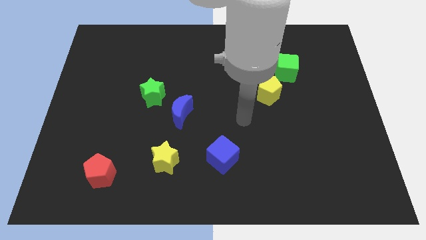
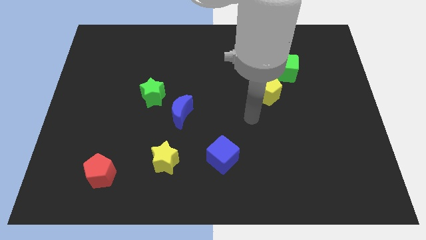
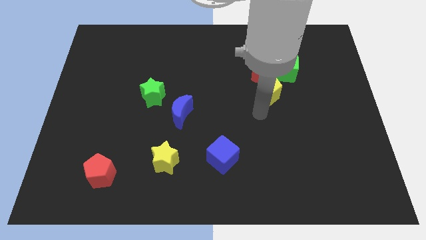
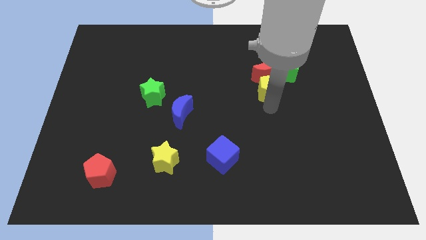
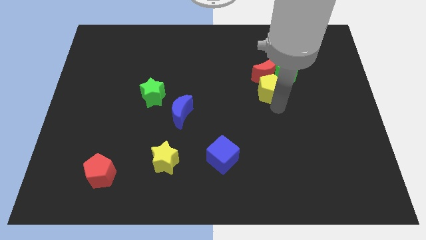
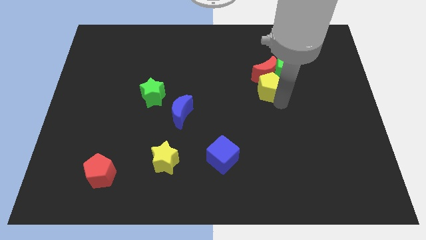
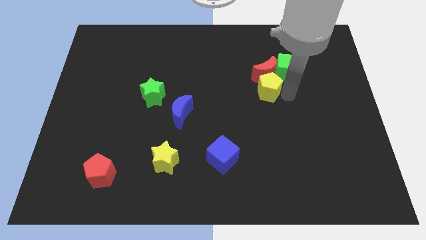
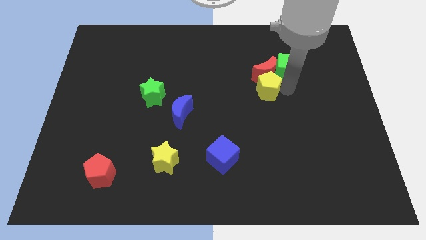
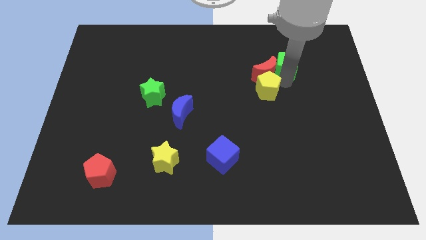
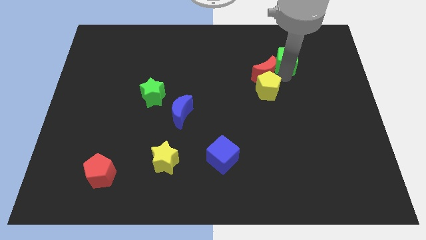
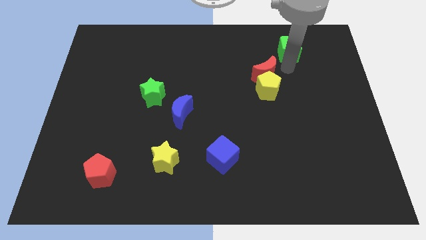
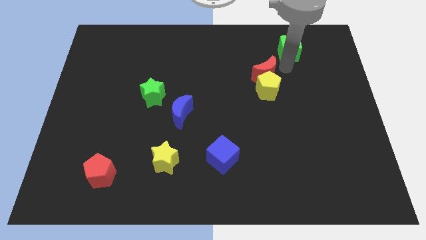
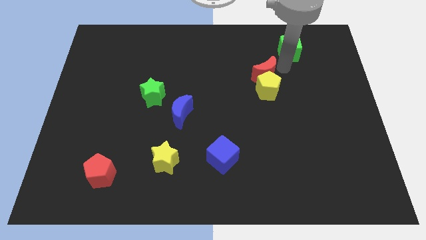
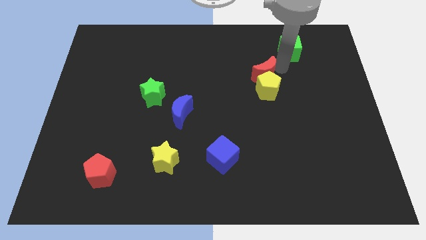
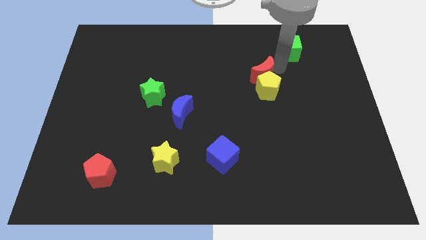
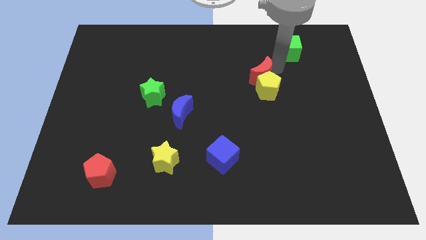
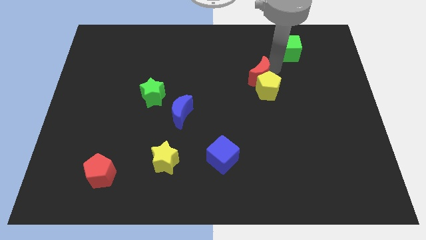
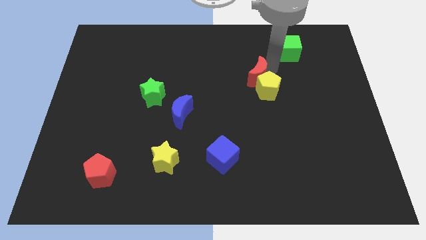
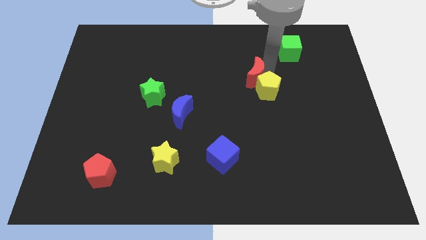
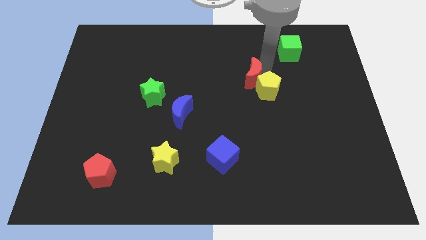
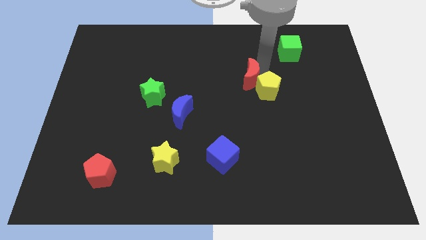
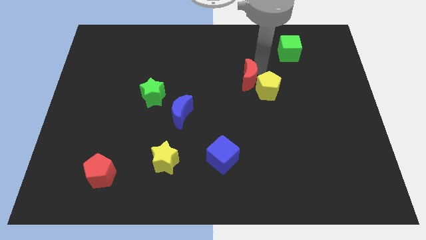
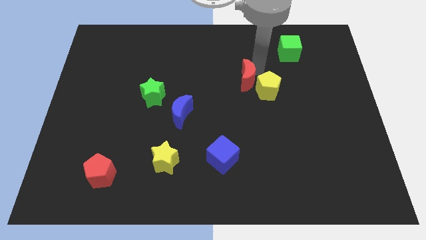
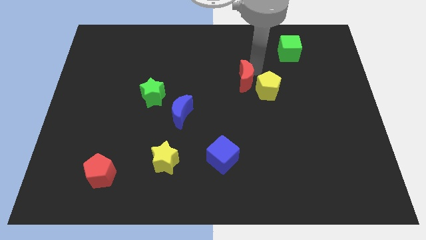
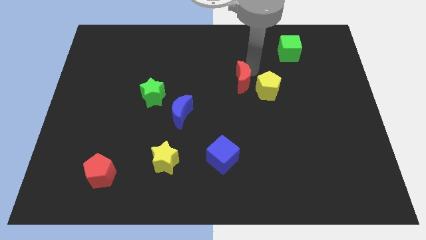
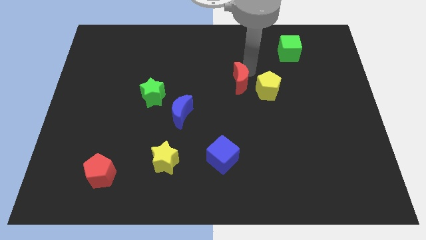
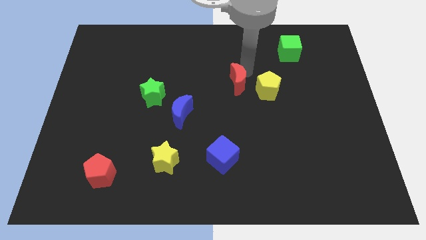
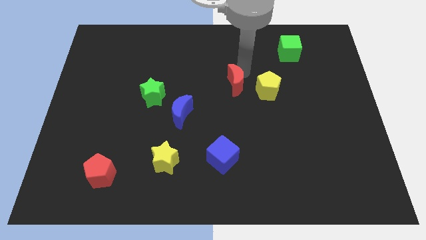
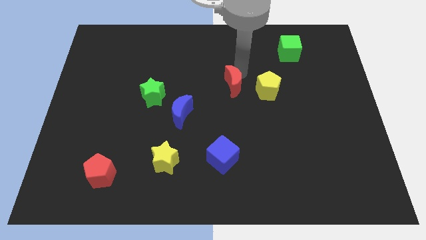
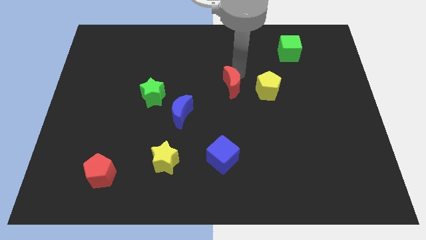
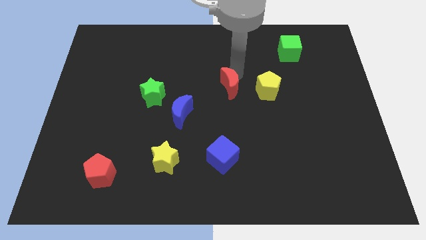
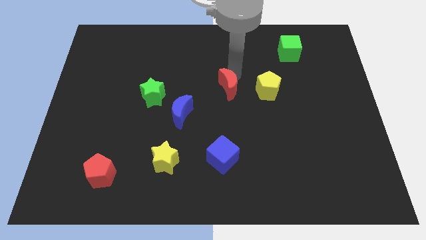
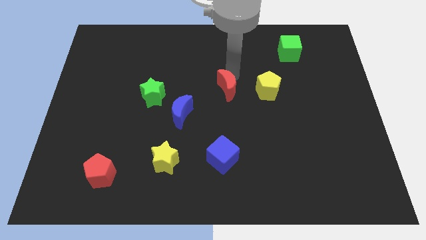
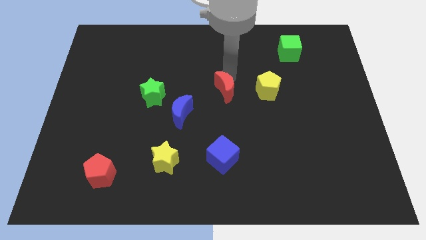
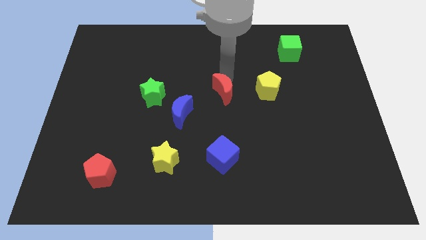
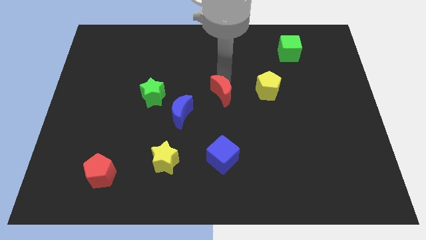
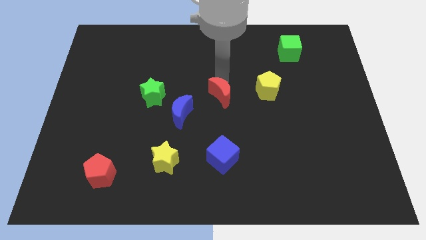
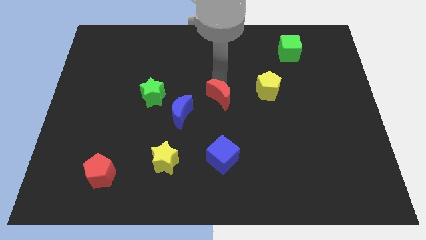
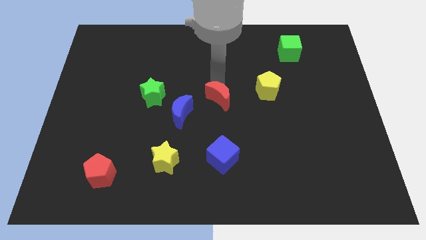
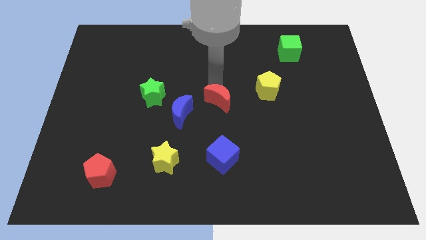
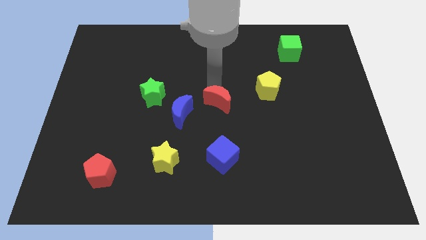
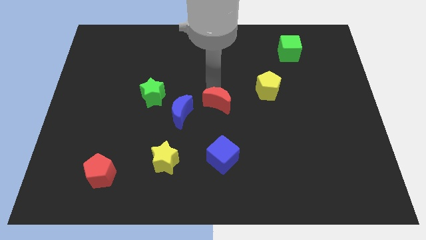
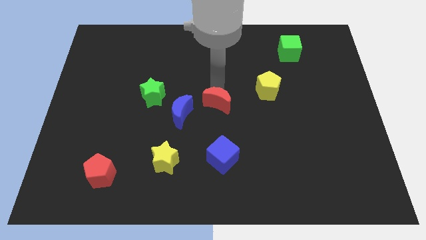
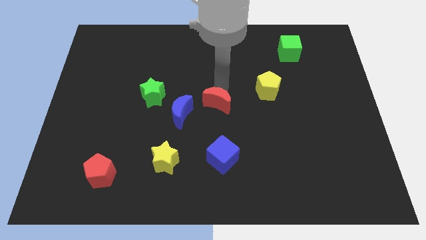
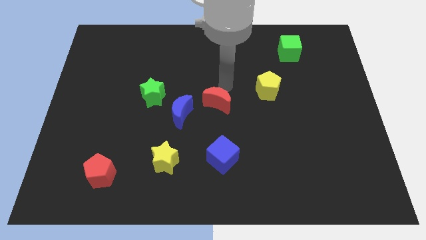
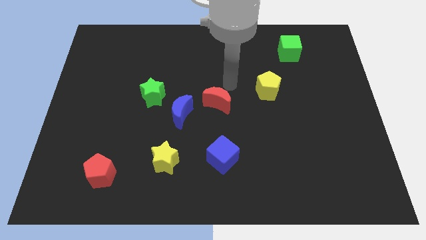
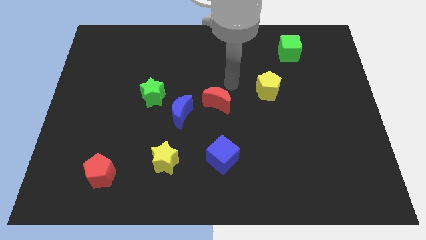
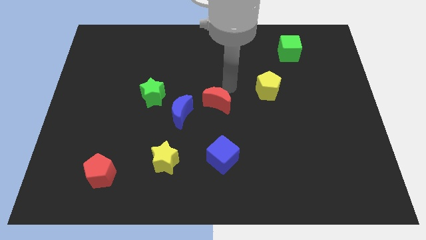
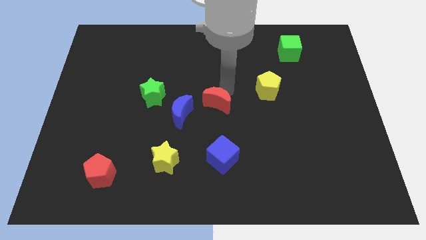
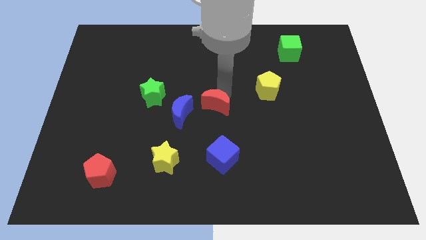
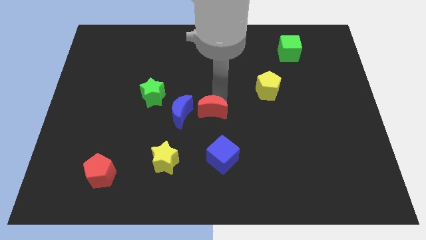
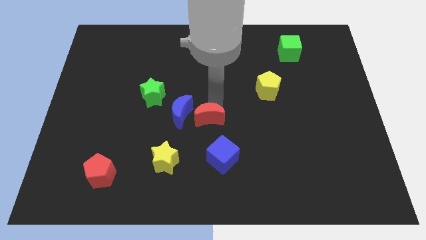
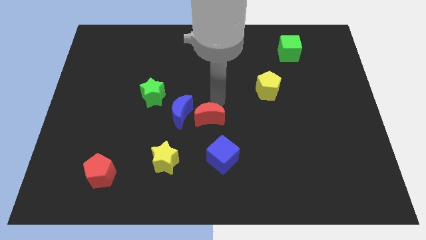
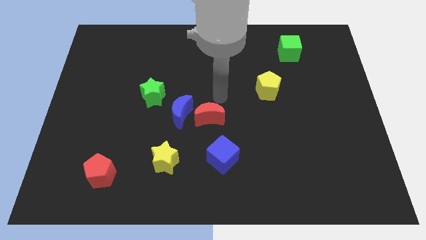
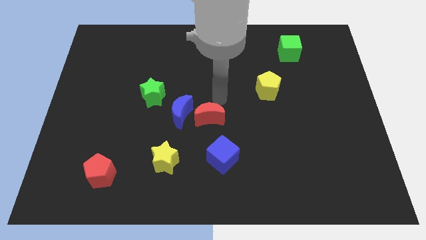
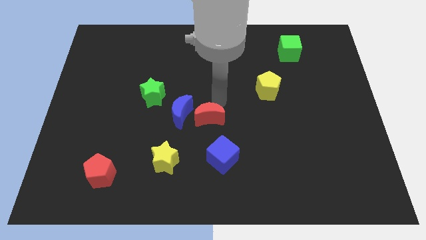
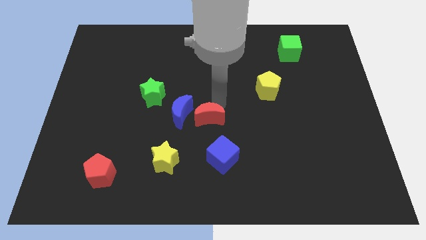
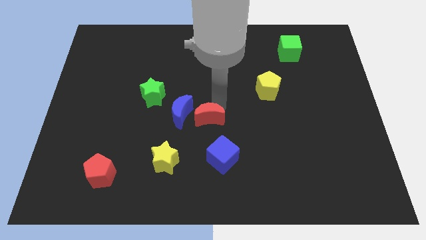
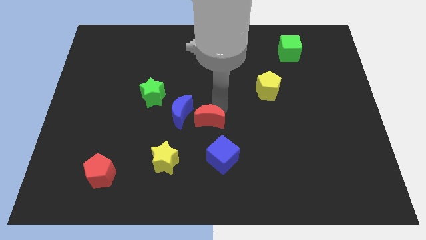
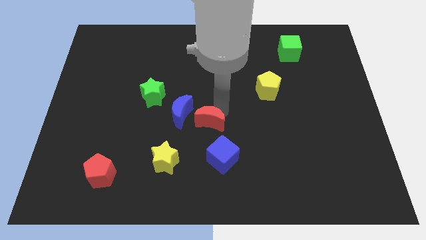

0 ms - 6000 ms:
slide the red moon to the top left side of the blue cube
